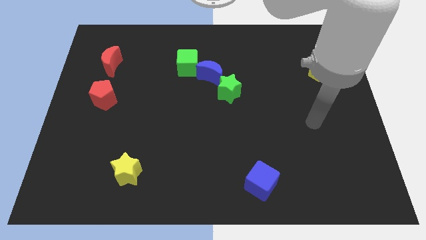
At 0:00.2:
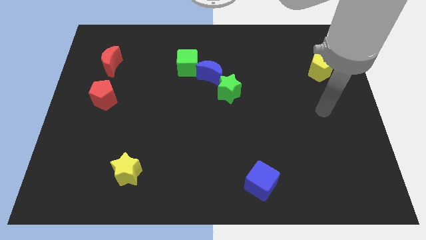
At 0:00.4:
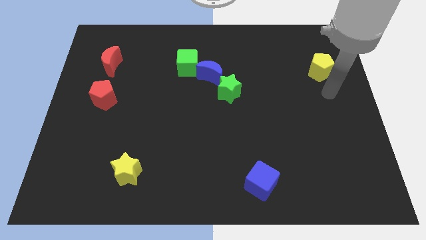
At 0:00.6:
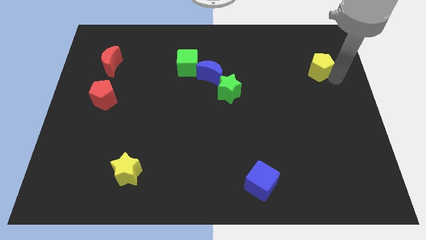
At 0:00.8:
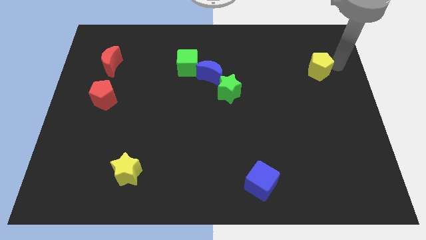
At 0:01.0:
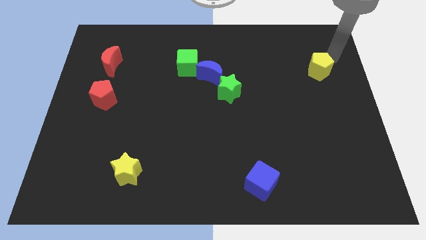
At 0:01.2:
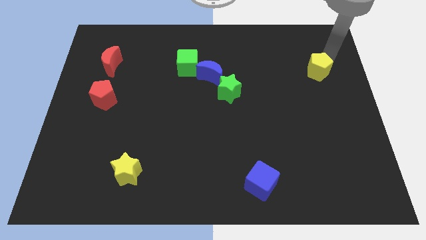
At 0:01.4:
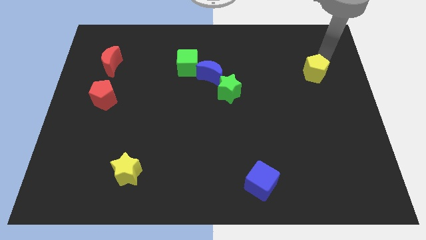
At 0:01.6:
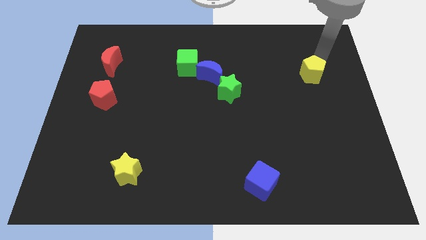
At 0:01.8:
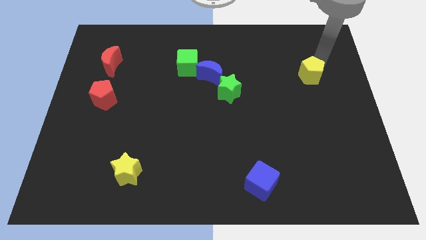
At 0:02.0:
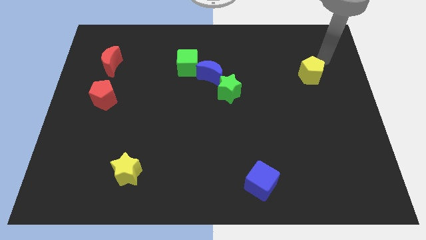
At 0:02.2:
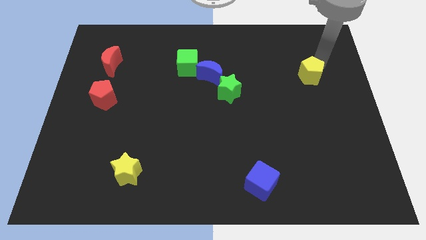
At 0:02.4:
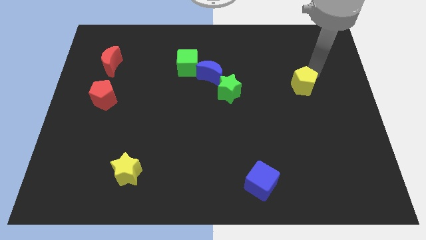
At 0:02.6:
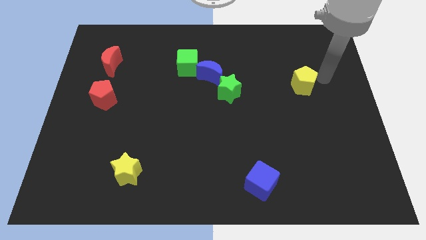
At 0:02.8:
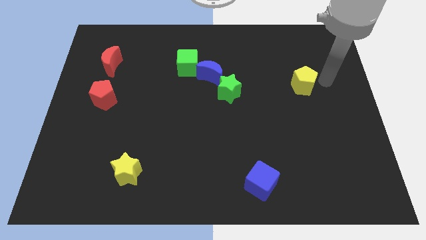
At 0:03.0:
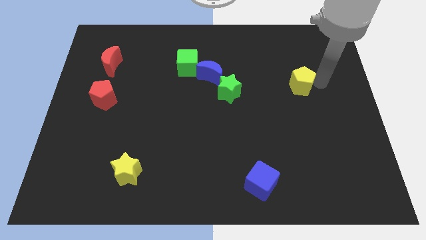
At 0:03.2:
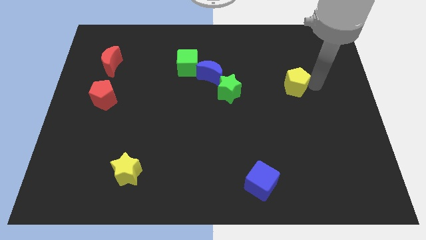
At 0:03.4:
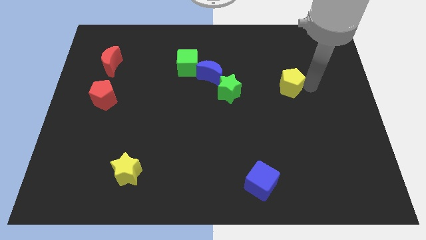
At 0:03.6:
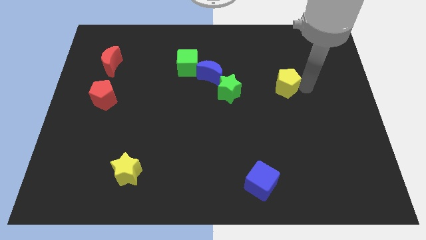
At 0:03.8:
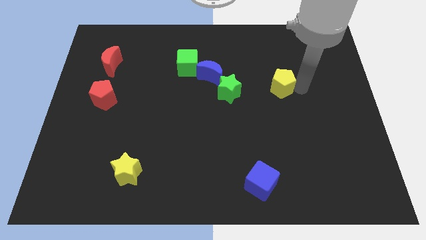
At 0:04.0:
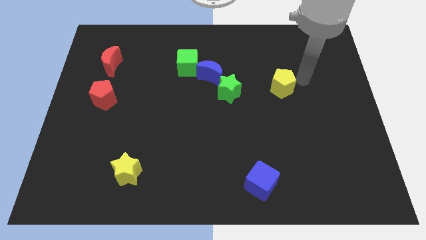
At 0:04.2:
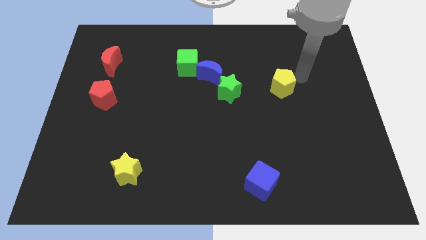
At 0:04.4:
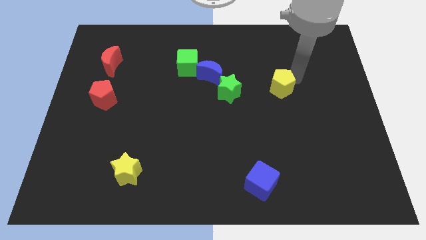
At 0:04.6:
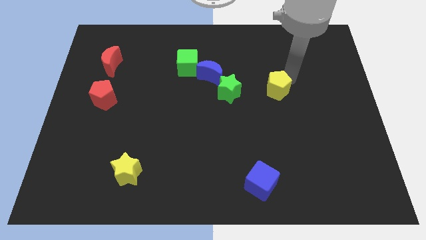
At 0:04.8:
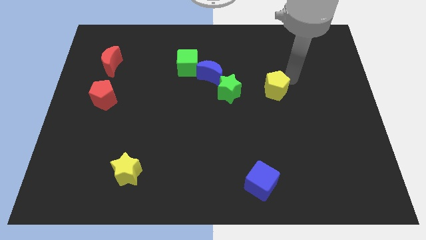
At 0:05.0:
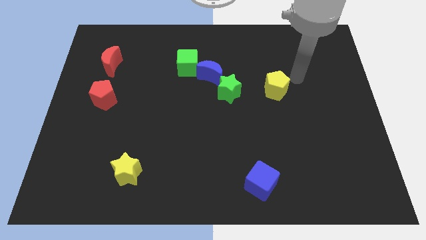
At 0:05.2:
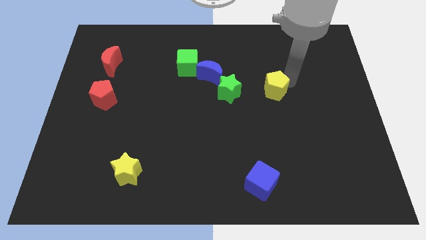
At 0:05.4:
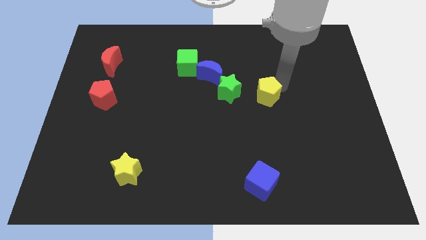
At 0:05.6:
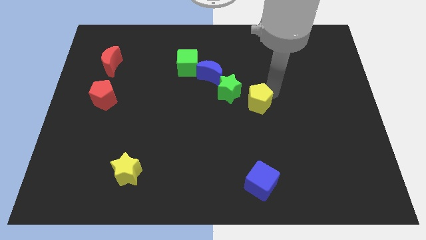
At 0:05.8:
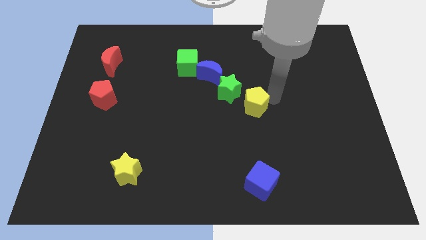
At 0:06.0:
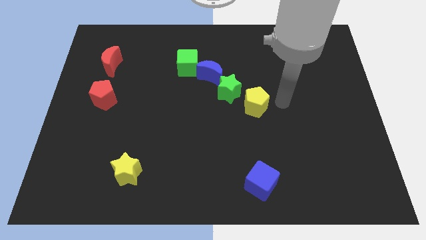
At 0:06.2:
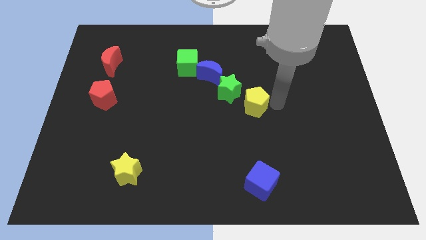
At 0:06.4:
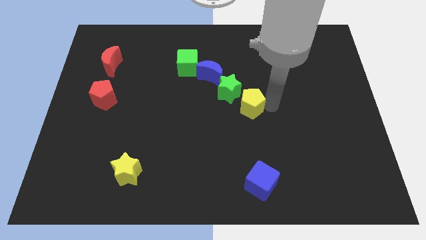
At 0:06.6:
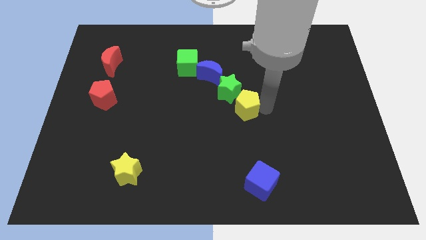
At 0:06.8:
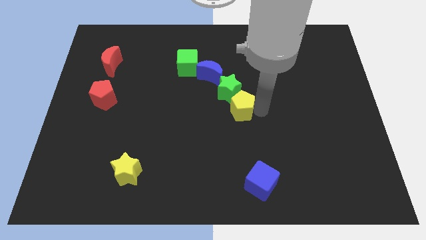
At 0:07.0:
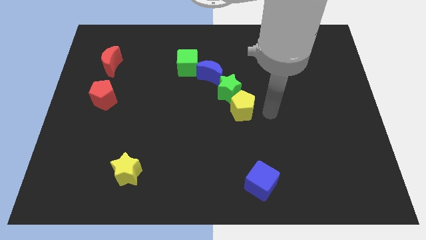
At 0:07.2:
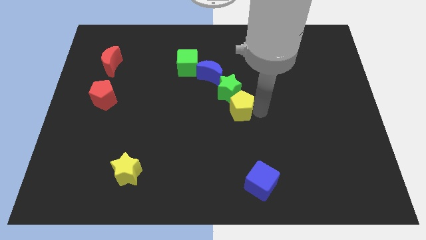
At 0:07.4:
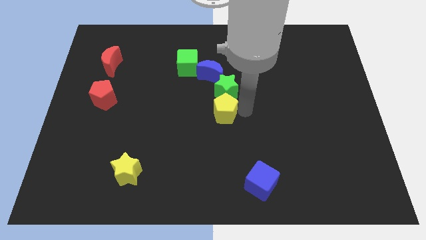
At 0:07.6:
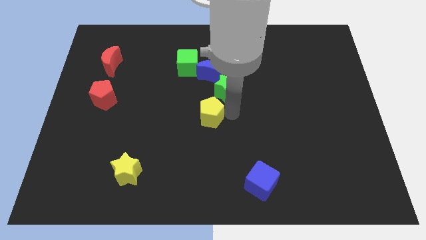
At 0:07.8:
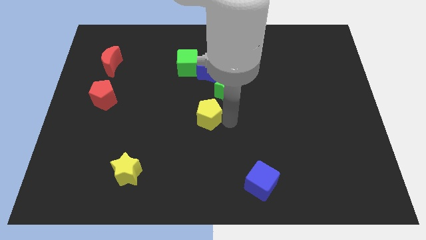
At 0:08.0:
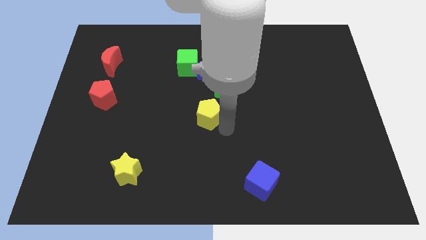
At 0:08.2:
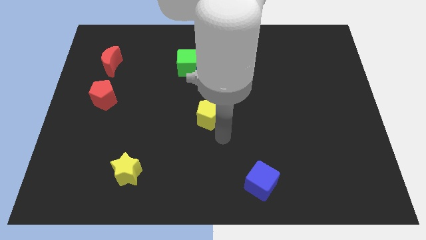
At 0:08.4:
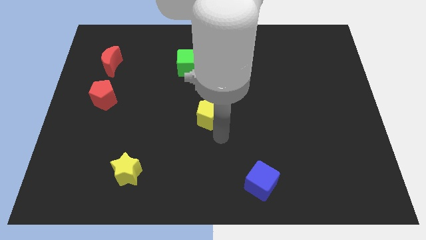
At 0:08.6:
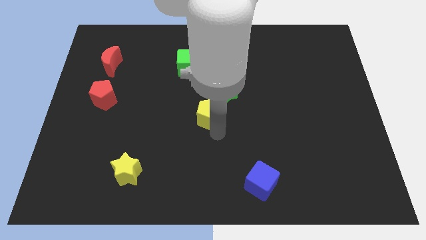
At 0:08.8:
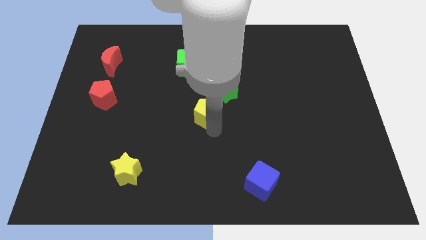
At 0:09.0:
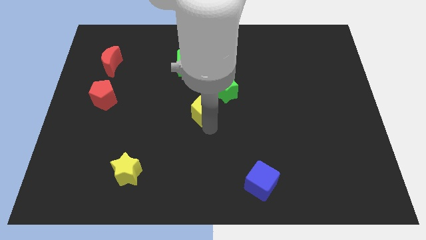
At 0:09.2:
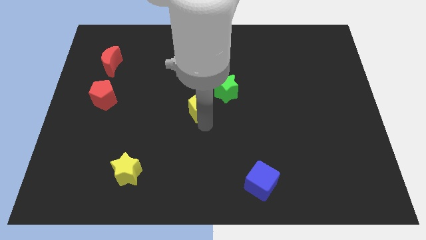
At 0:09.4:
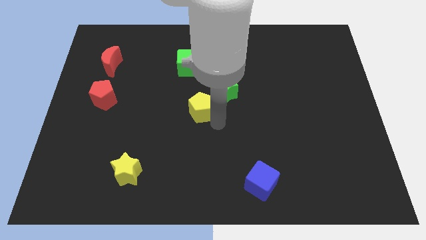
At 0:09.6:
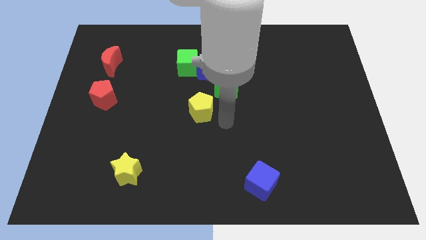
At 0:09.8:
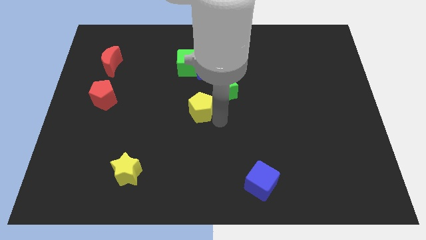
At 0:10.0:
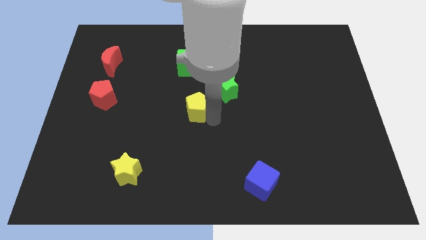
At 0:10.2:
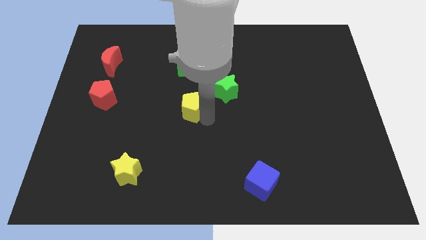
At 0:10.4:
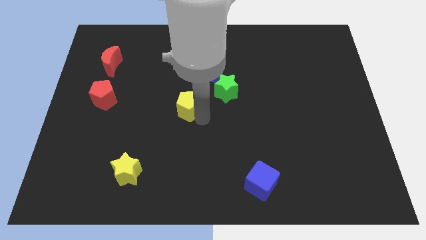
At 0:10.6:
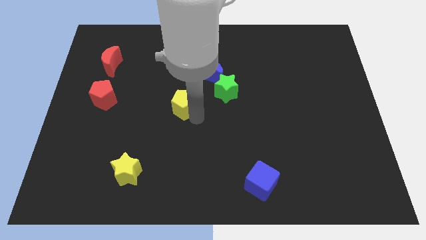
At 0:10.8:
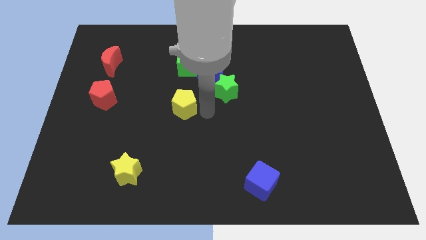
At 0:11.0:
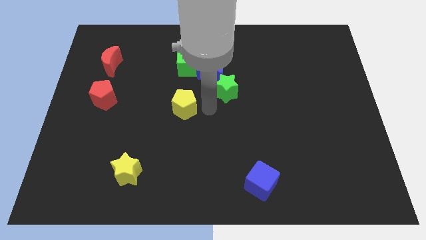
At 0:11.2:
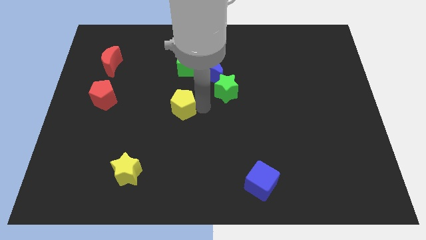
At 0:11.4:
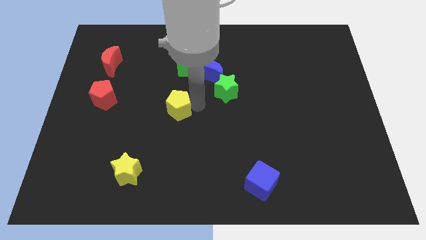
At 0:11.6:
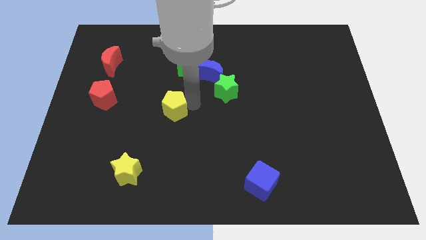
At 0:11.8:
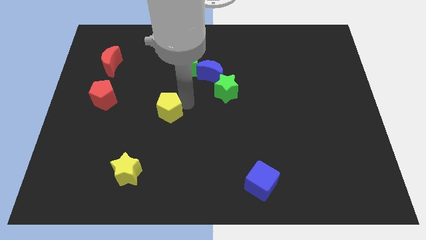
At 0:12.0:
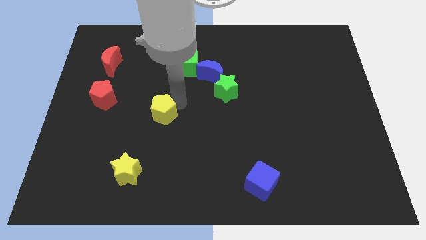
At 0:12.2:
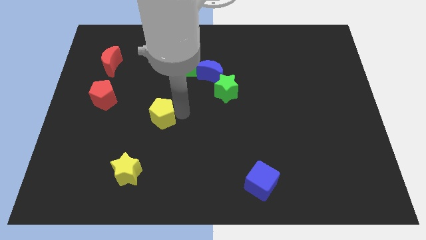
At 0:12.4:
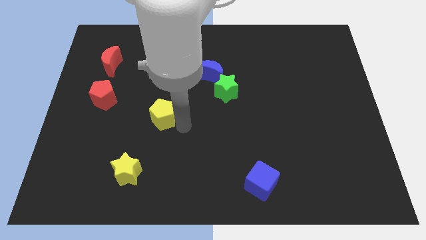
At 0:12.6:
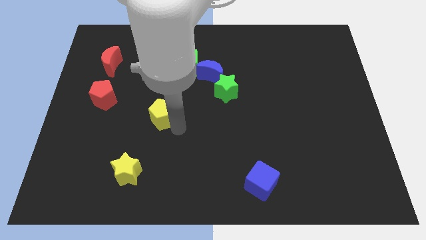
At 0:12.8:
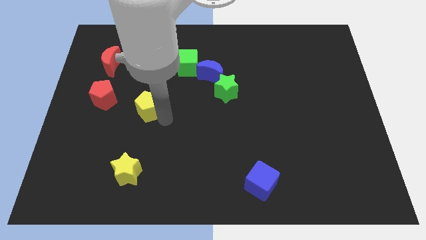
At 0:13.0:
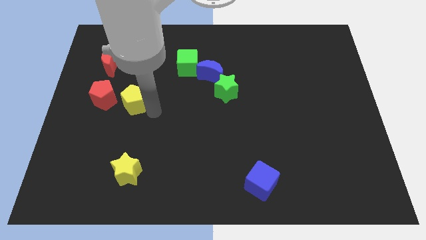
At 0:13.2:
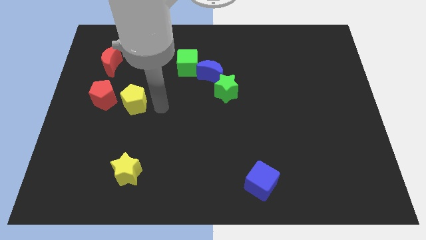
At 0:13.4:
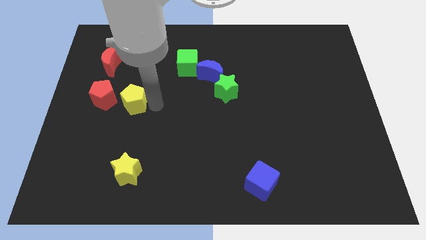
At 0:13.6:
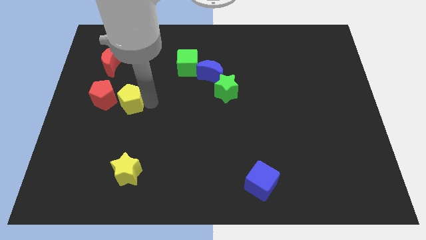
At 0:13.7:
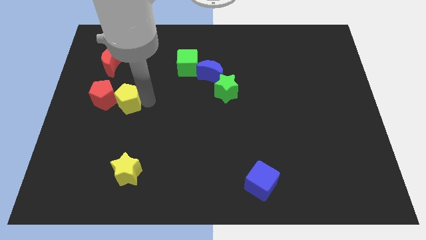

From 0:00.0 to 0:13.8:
put the yellow pentagon towards the red pentagon

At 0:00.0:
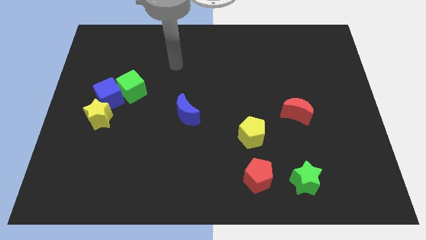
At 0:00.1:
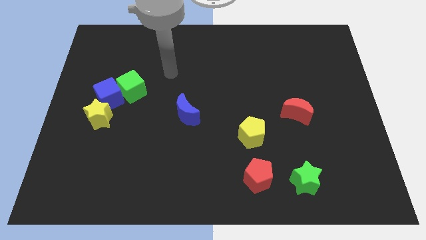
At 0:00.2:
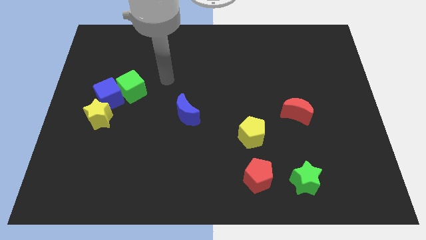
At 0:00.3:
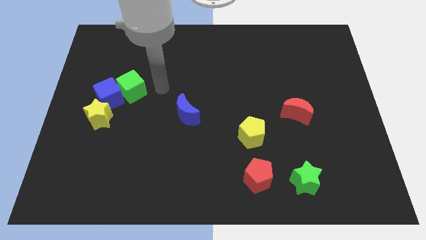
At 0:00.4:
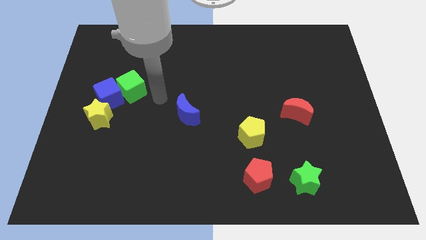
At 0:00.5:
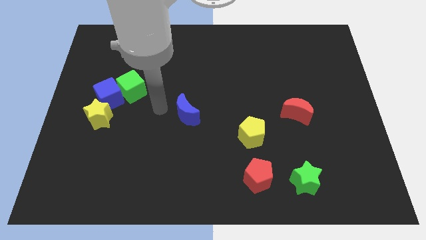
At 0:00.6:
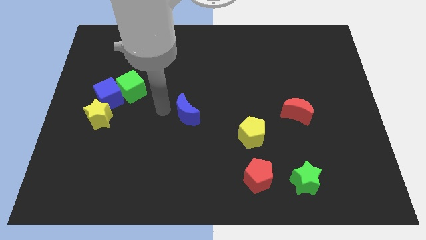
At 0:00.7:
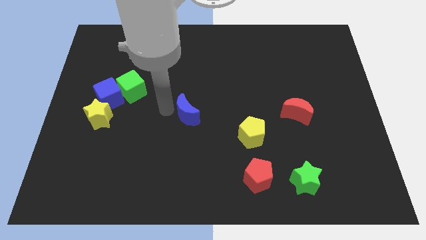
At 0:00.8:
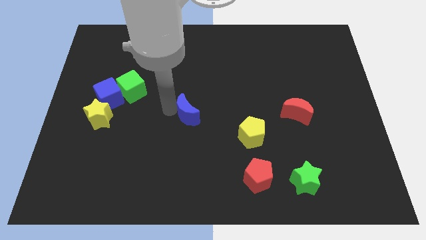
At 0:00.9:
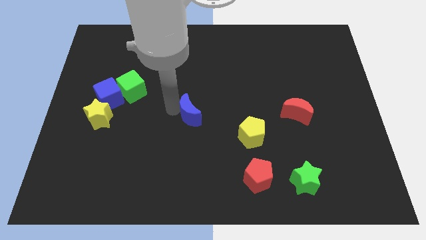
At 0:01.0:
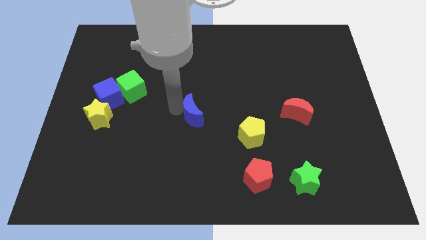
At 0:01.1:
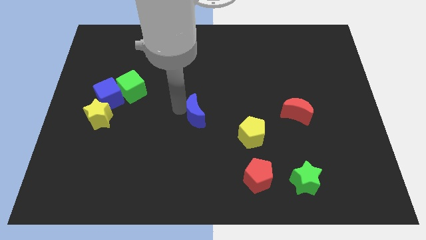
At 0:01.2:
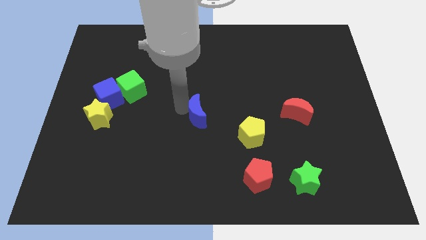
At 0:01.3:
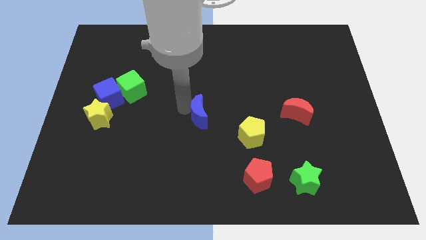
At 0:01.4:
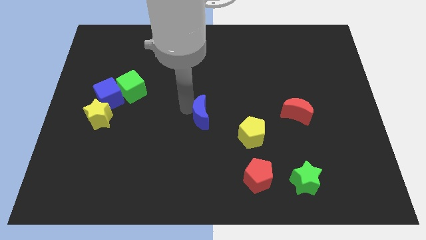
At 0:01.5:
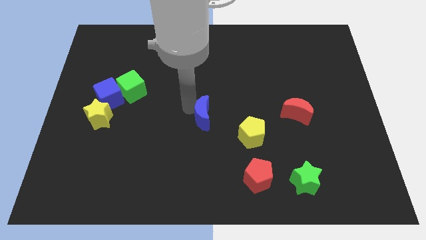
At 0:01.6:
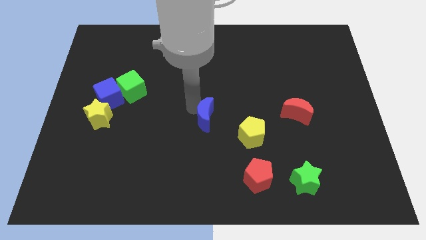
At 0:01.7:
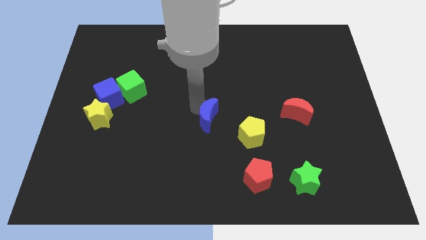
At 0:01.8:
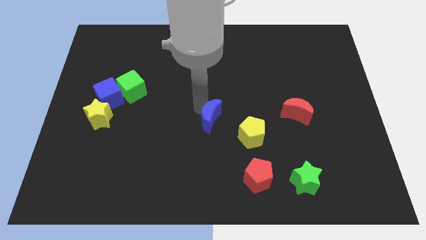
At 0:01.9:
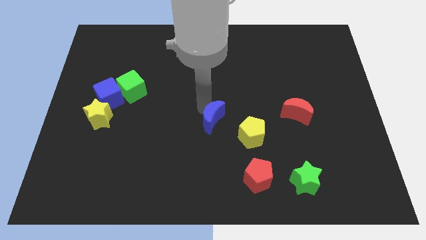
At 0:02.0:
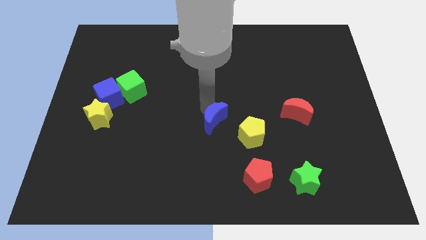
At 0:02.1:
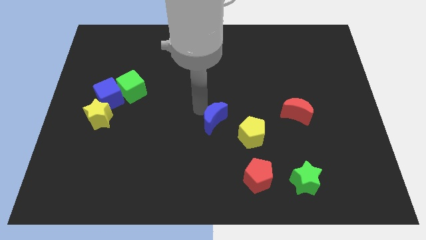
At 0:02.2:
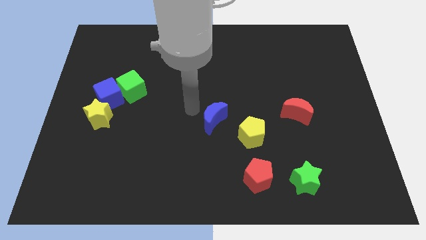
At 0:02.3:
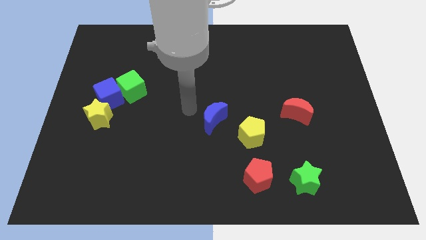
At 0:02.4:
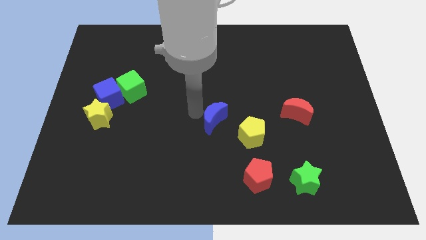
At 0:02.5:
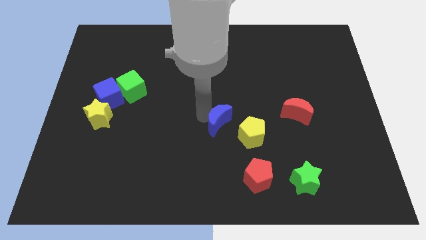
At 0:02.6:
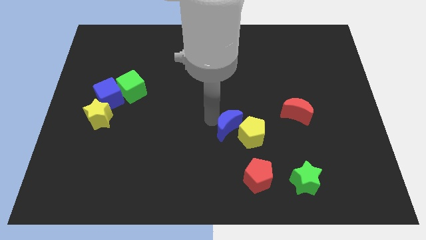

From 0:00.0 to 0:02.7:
put the blue moon to the yellow pentagon
